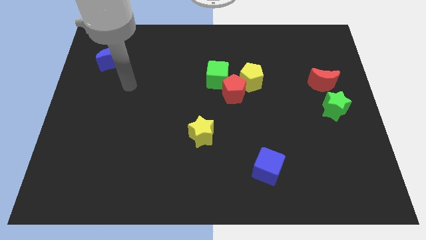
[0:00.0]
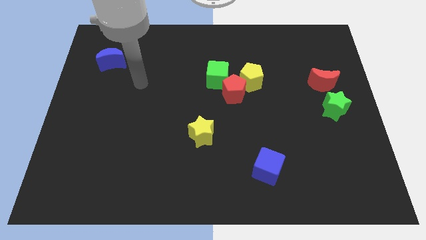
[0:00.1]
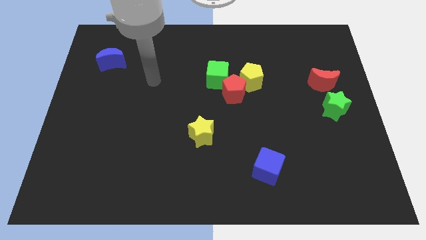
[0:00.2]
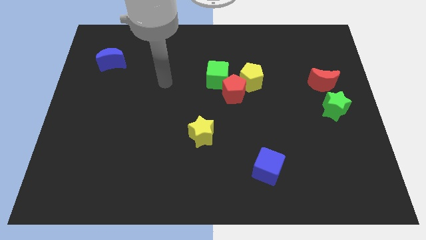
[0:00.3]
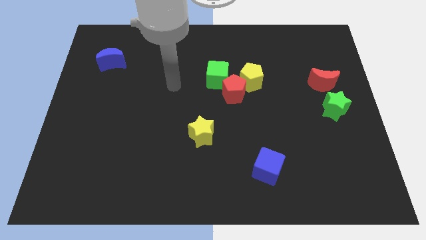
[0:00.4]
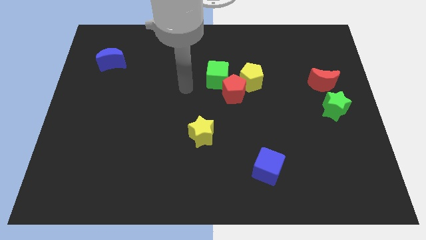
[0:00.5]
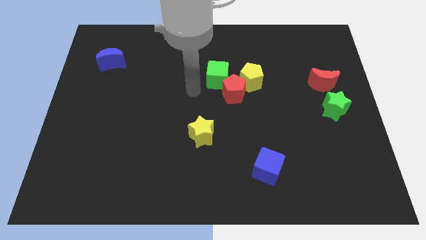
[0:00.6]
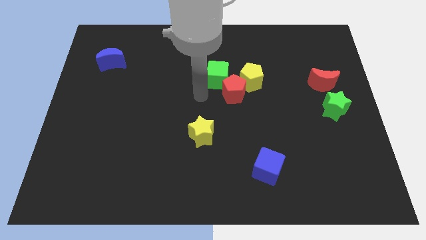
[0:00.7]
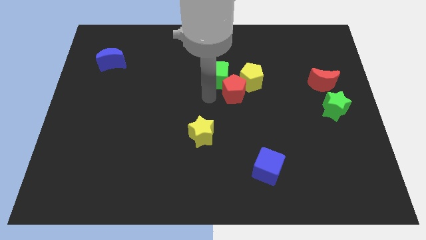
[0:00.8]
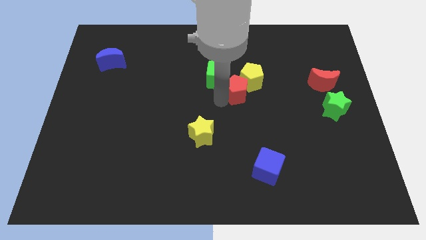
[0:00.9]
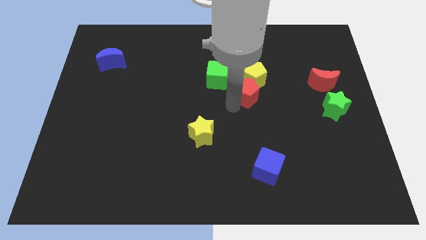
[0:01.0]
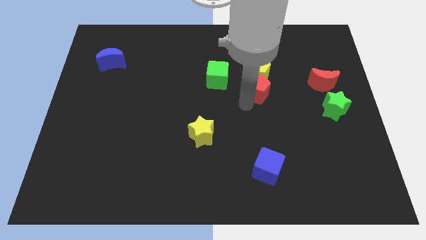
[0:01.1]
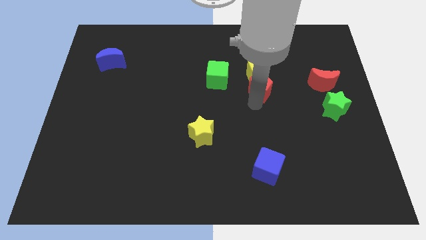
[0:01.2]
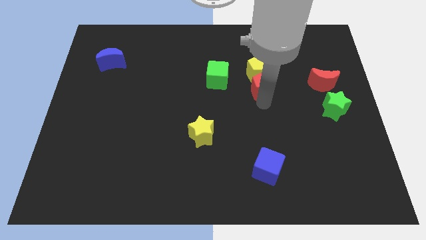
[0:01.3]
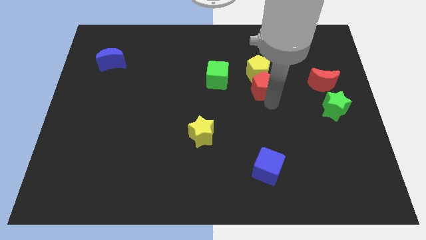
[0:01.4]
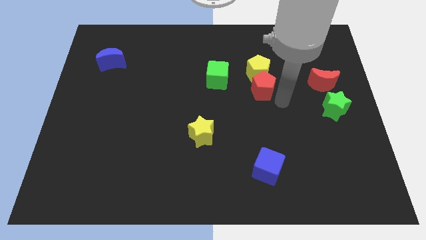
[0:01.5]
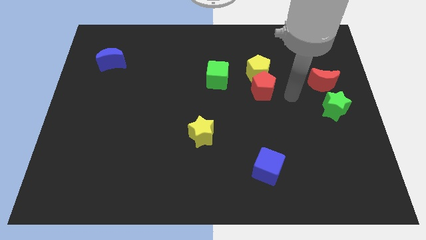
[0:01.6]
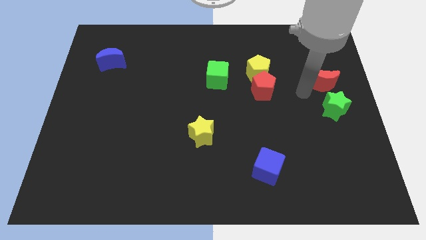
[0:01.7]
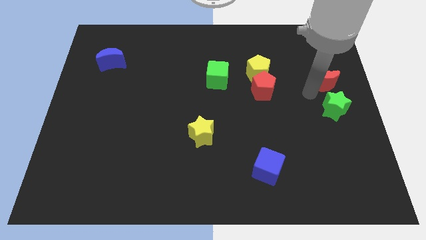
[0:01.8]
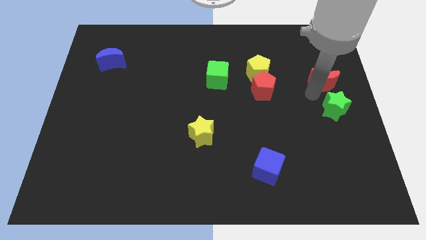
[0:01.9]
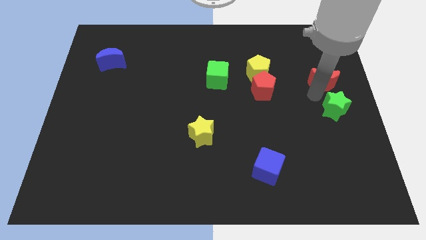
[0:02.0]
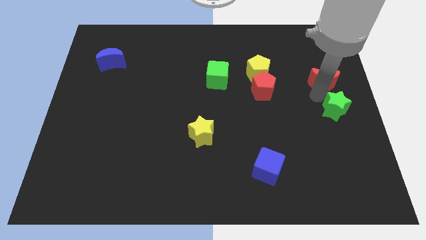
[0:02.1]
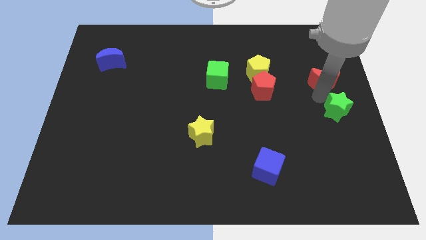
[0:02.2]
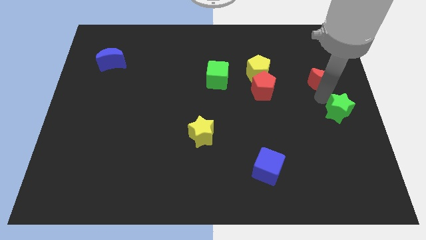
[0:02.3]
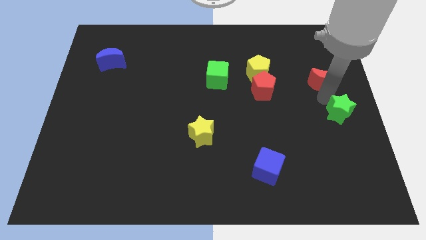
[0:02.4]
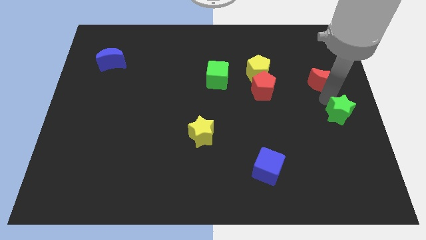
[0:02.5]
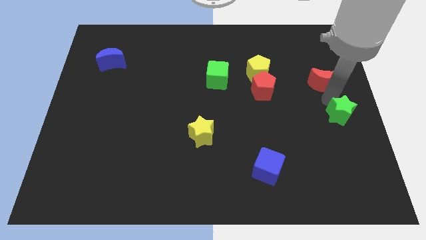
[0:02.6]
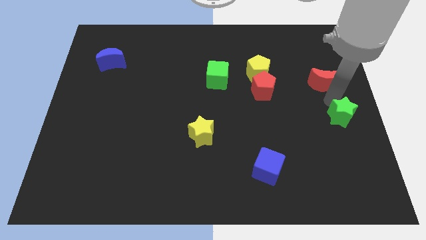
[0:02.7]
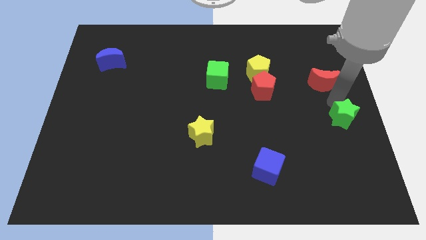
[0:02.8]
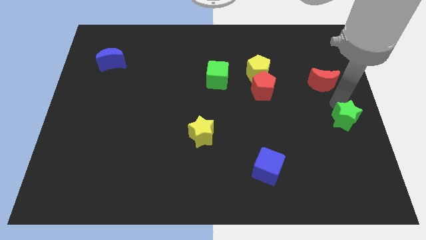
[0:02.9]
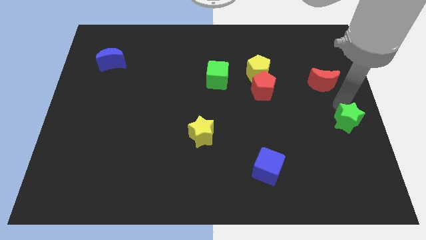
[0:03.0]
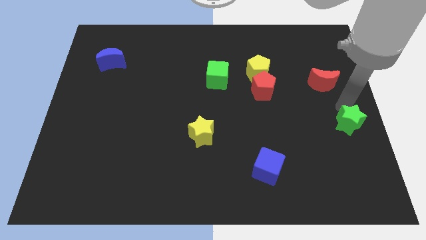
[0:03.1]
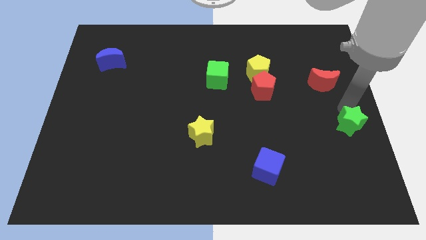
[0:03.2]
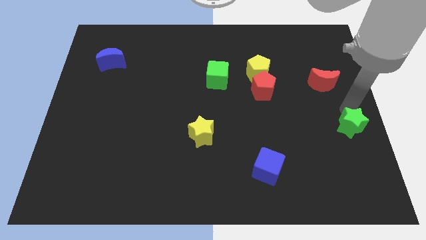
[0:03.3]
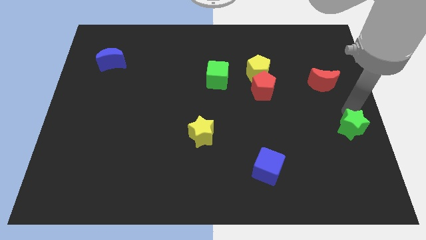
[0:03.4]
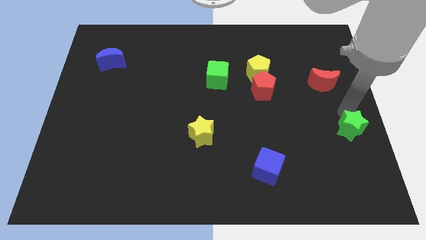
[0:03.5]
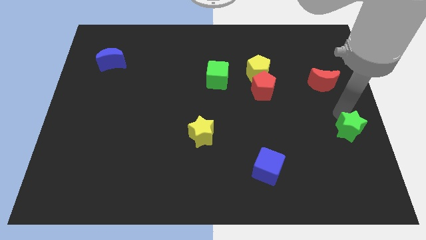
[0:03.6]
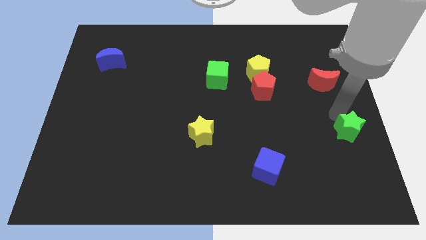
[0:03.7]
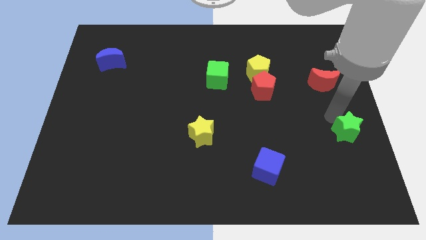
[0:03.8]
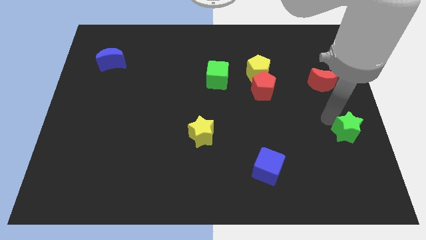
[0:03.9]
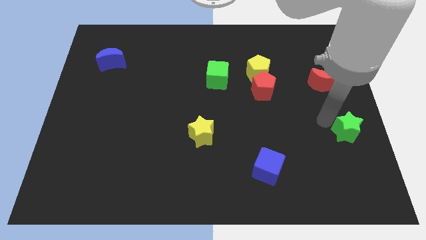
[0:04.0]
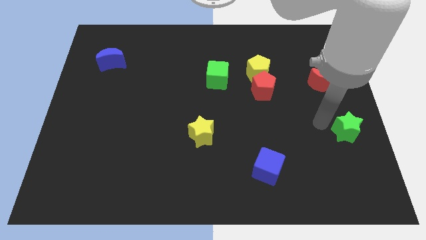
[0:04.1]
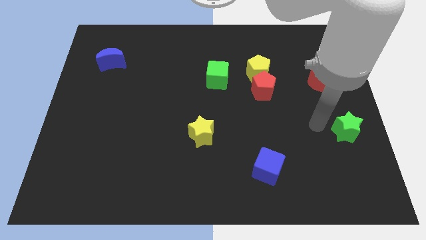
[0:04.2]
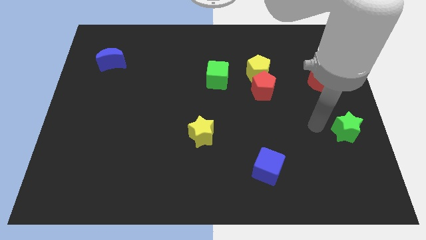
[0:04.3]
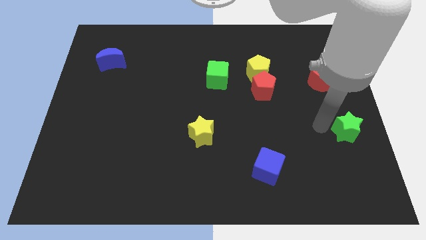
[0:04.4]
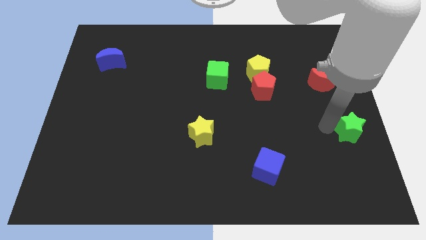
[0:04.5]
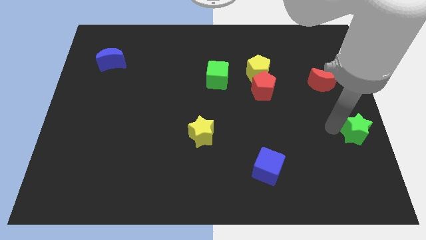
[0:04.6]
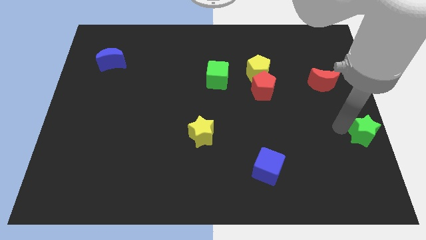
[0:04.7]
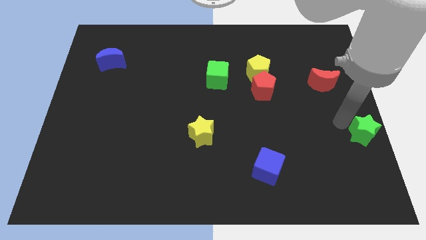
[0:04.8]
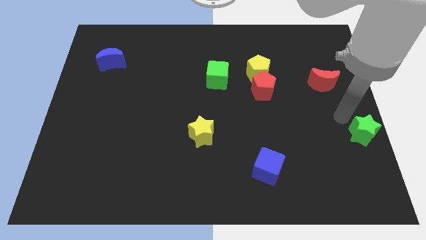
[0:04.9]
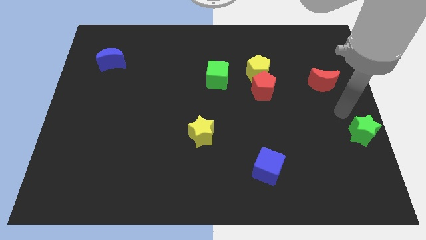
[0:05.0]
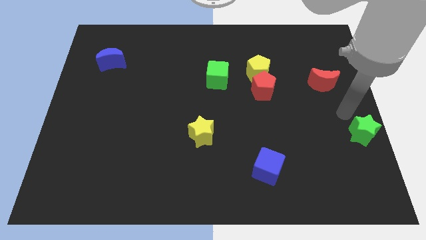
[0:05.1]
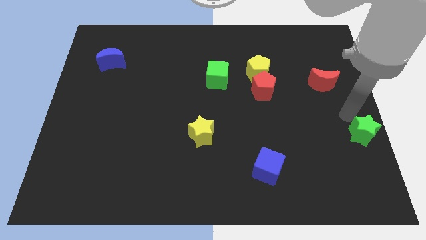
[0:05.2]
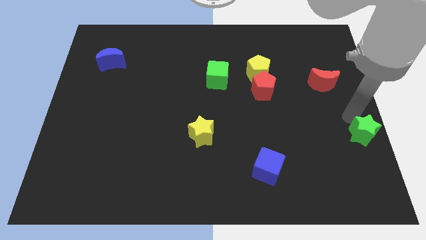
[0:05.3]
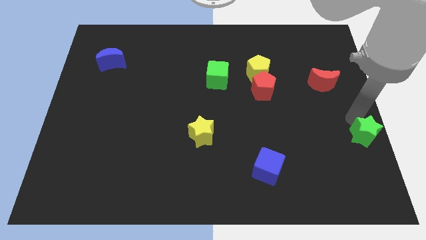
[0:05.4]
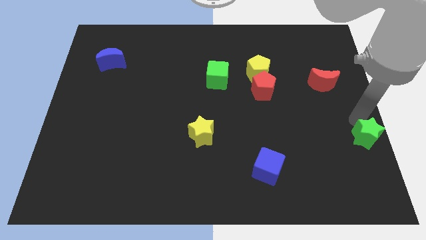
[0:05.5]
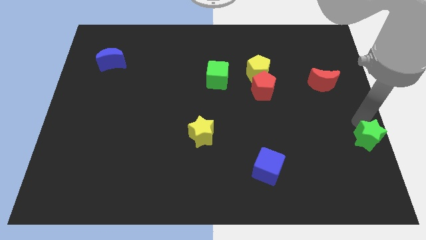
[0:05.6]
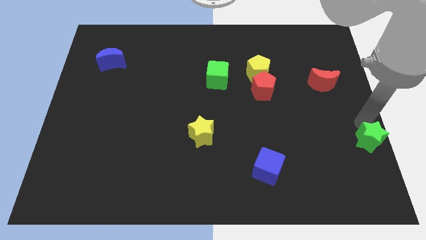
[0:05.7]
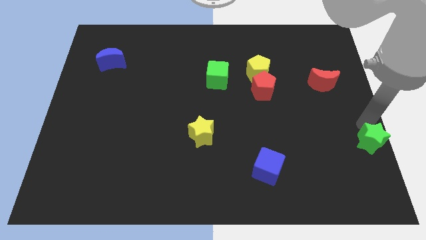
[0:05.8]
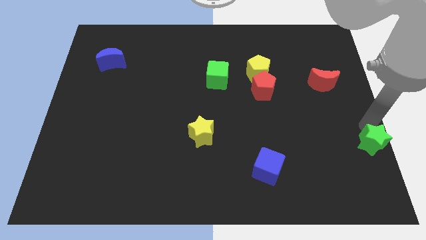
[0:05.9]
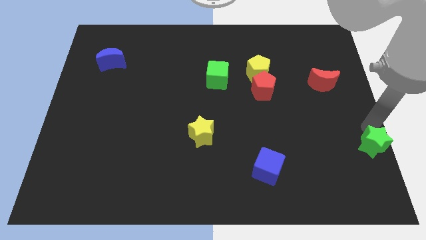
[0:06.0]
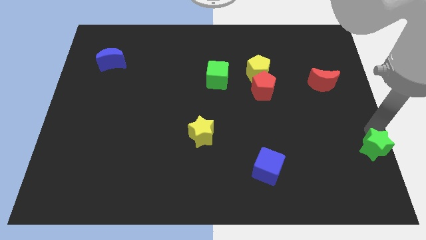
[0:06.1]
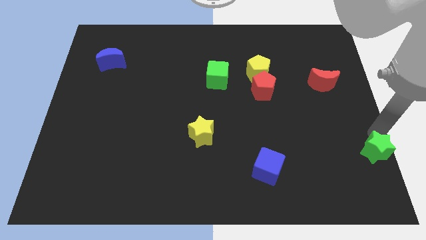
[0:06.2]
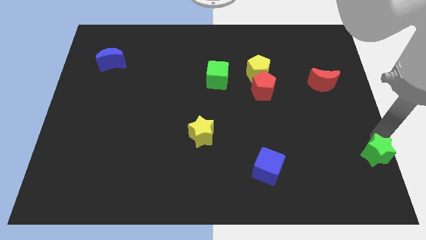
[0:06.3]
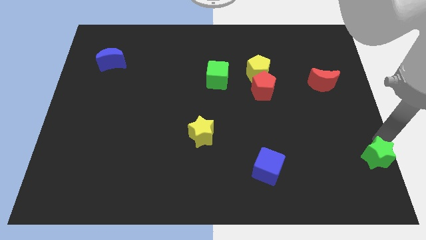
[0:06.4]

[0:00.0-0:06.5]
push the green star to the bottom right of the board
